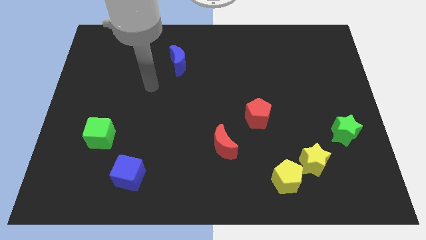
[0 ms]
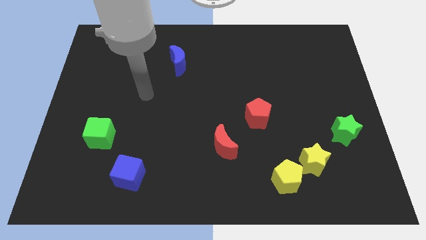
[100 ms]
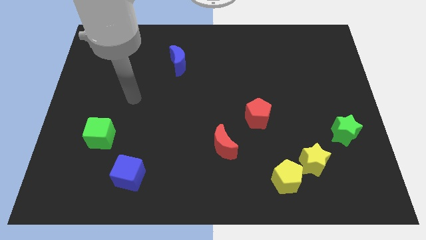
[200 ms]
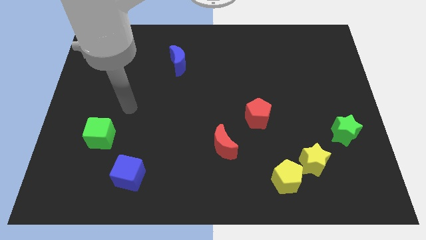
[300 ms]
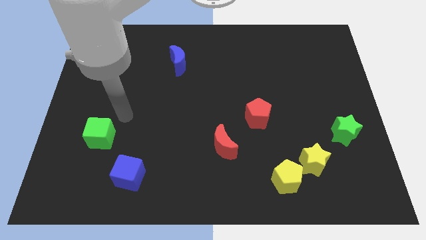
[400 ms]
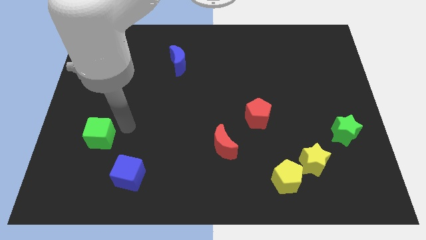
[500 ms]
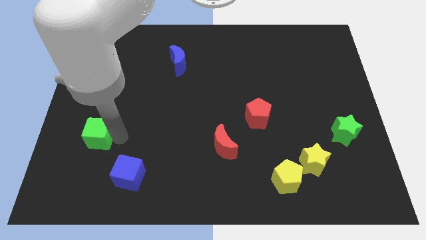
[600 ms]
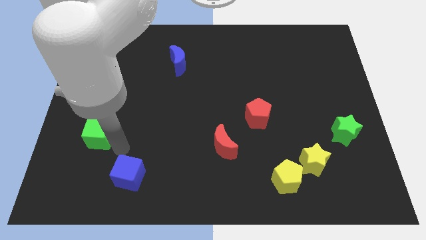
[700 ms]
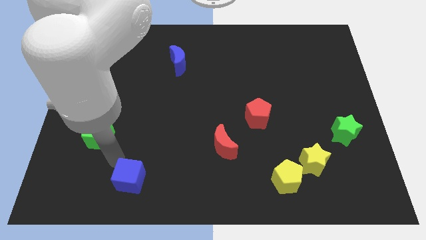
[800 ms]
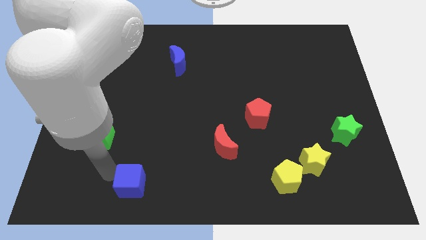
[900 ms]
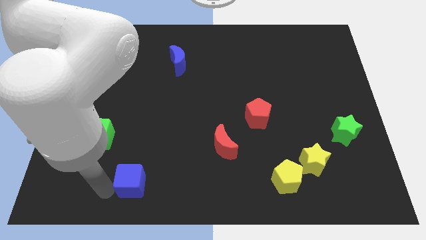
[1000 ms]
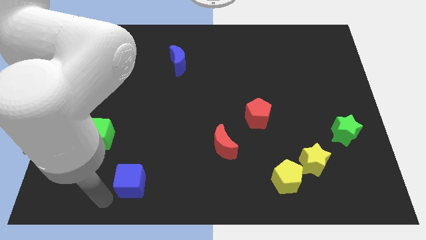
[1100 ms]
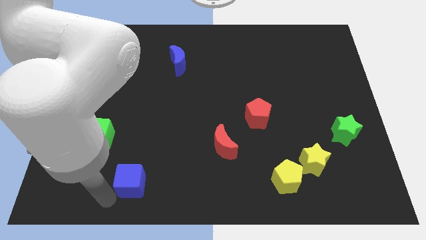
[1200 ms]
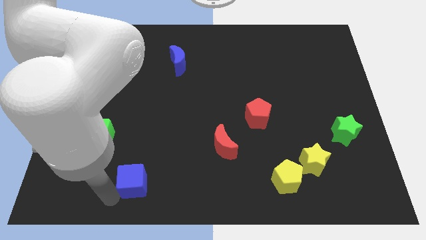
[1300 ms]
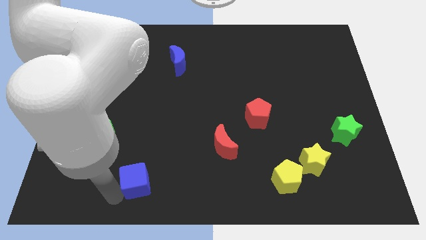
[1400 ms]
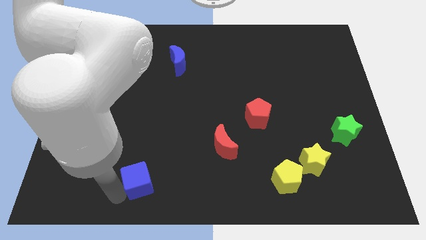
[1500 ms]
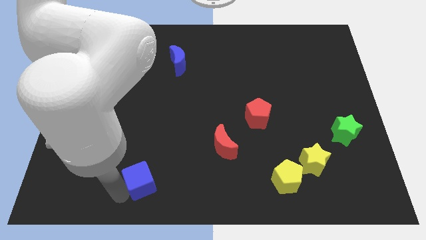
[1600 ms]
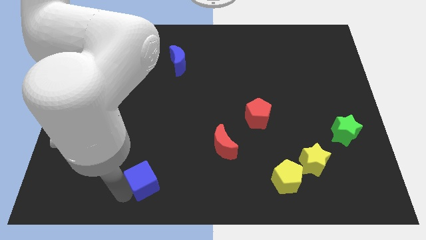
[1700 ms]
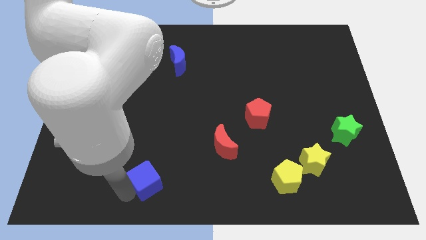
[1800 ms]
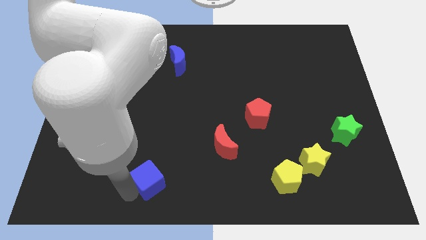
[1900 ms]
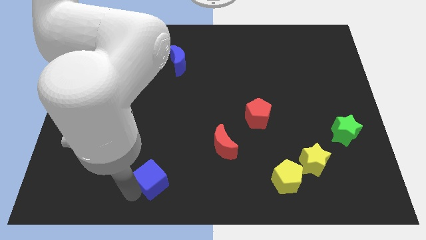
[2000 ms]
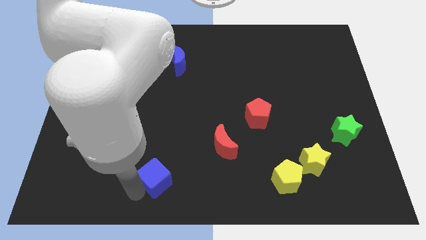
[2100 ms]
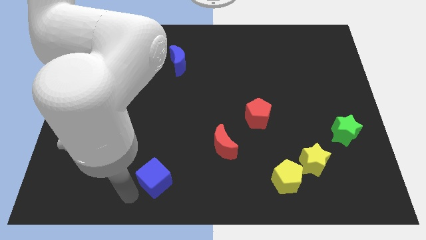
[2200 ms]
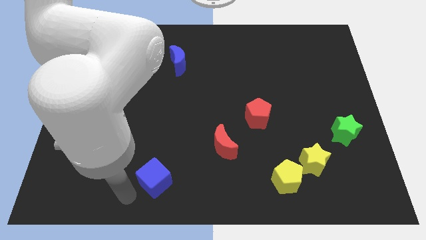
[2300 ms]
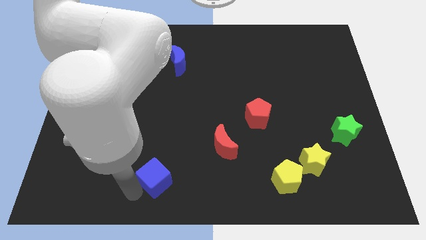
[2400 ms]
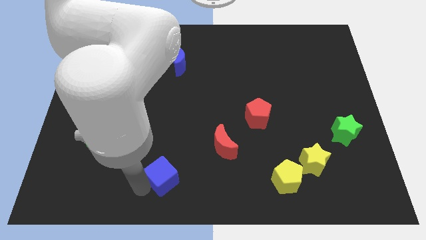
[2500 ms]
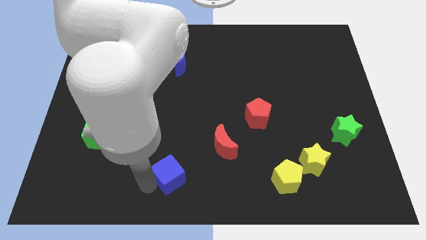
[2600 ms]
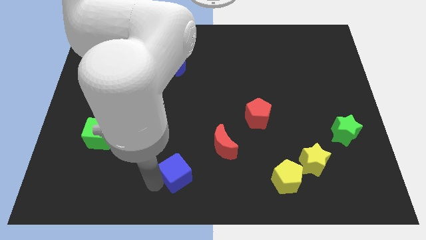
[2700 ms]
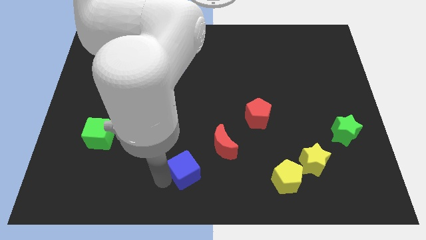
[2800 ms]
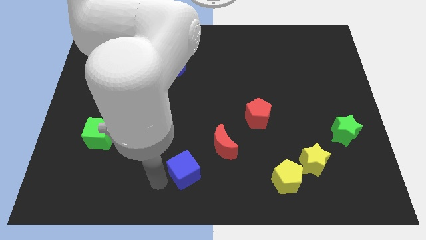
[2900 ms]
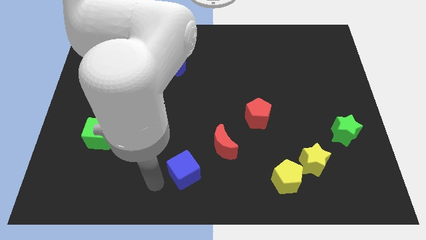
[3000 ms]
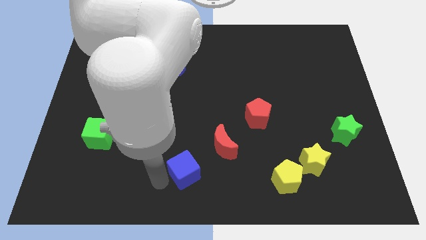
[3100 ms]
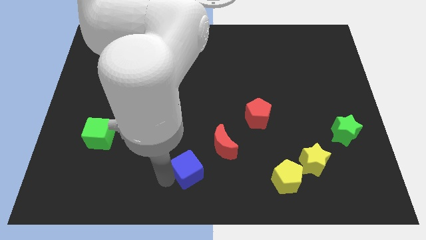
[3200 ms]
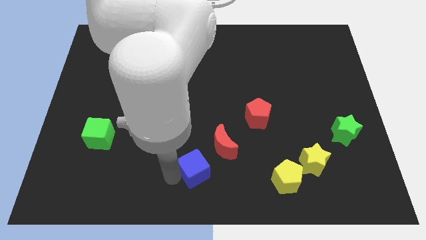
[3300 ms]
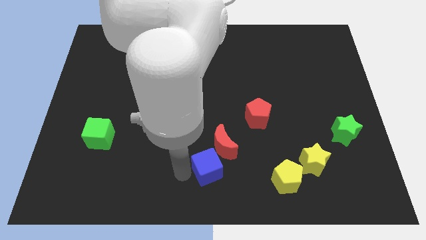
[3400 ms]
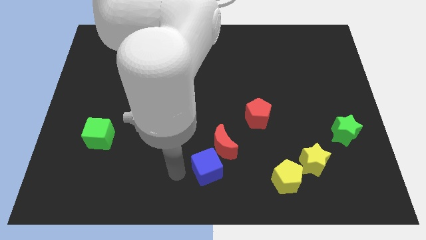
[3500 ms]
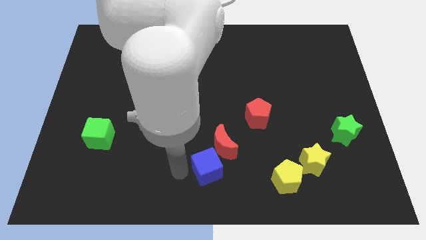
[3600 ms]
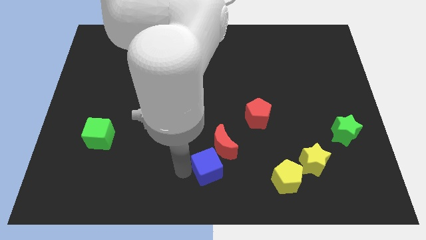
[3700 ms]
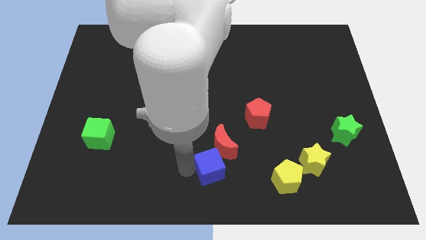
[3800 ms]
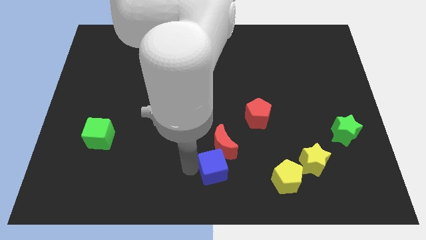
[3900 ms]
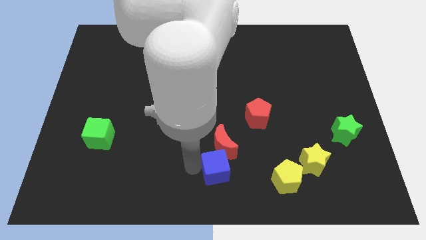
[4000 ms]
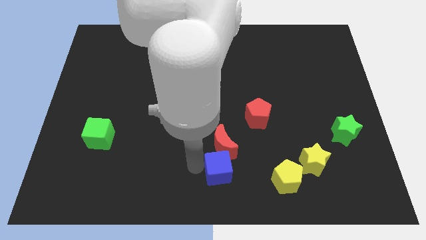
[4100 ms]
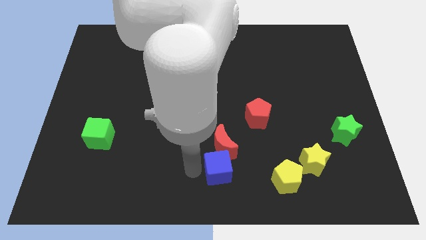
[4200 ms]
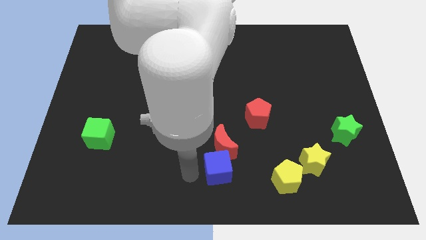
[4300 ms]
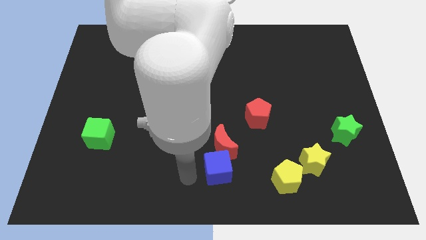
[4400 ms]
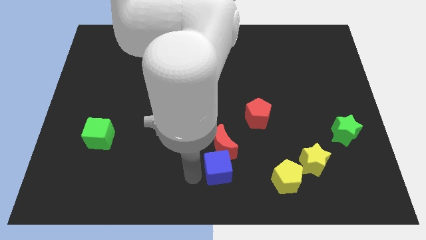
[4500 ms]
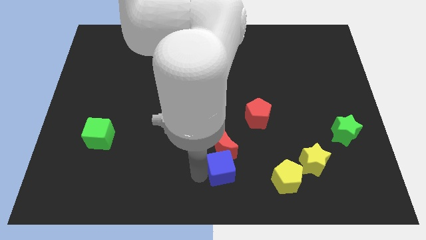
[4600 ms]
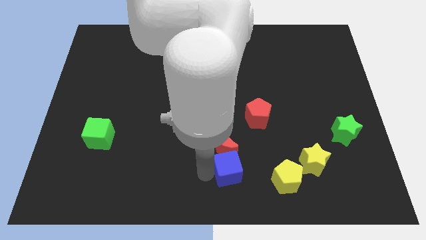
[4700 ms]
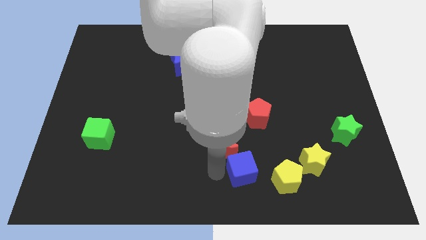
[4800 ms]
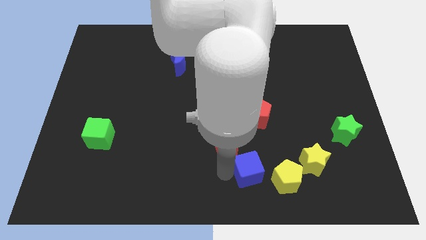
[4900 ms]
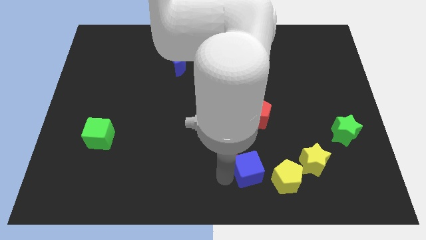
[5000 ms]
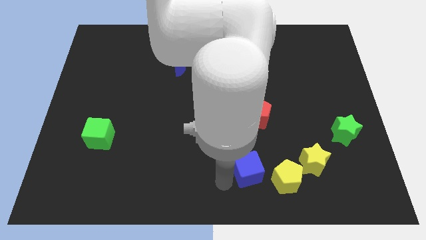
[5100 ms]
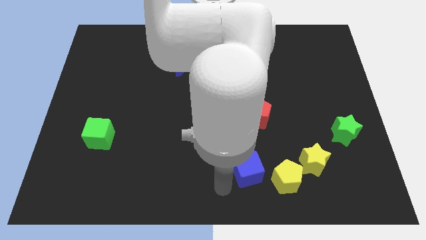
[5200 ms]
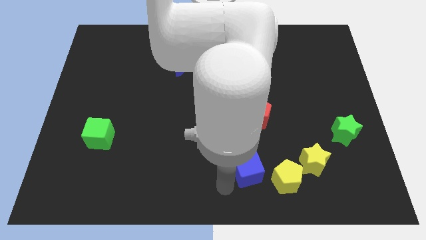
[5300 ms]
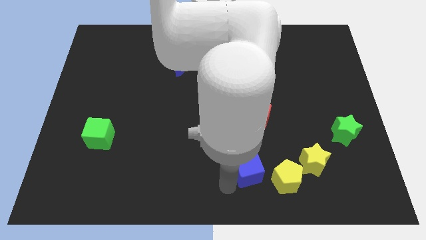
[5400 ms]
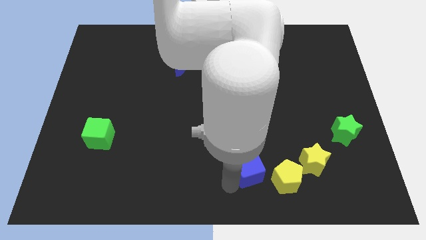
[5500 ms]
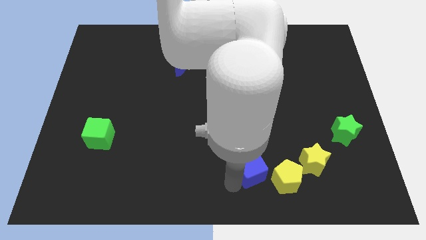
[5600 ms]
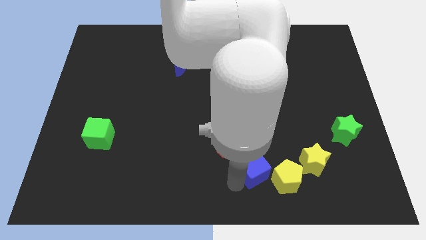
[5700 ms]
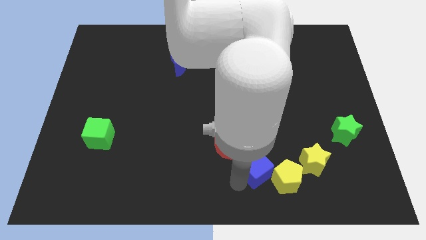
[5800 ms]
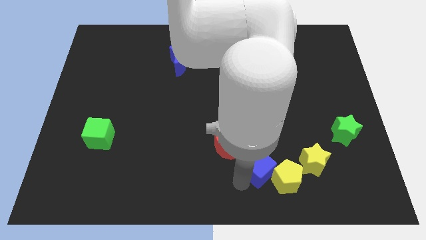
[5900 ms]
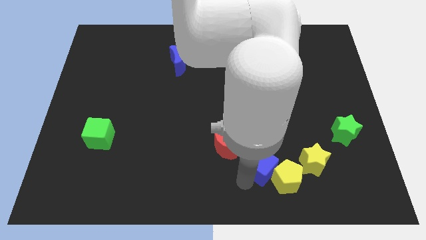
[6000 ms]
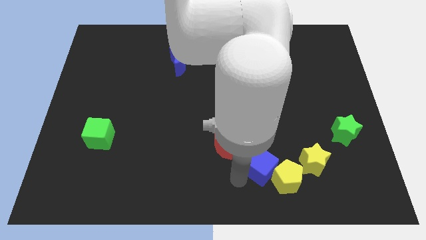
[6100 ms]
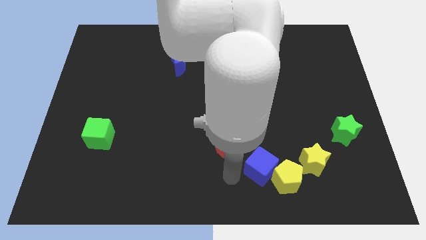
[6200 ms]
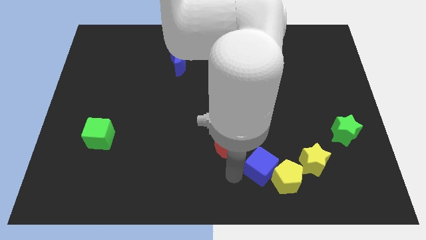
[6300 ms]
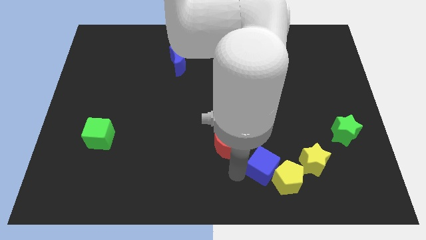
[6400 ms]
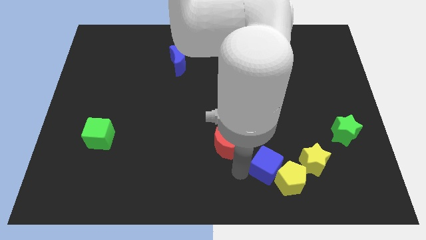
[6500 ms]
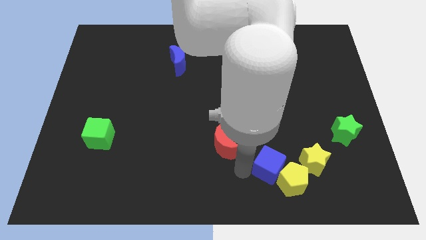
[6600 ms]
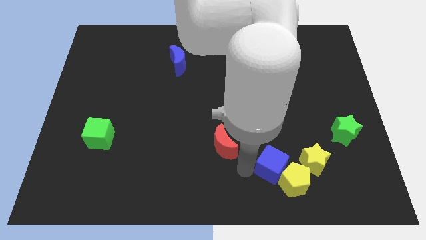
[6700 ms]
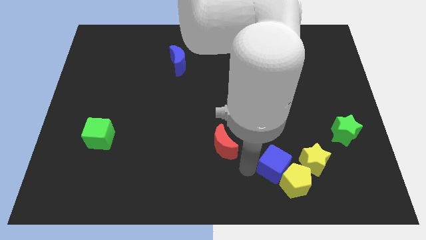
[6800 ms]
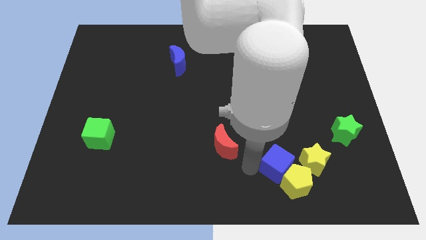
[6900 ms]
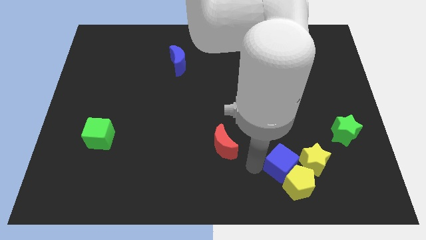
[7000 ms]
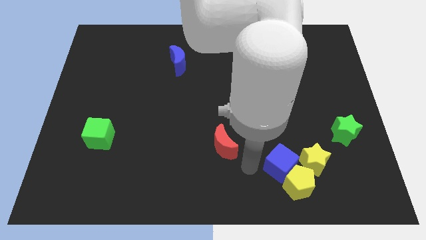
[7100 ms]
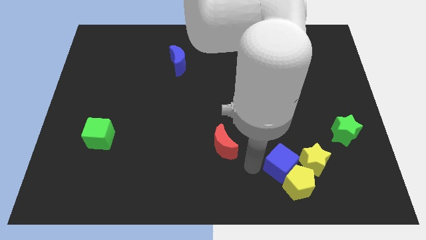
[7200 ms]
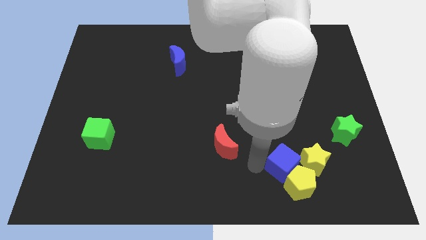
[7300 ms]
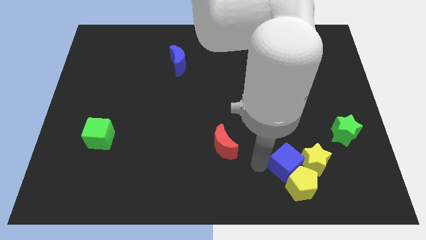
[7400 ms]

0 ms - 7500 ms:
push the blue cube close to the yellow star
